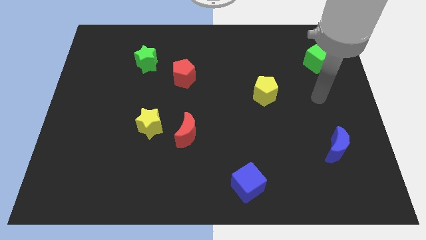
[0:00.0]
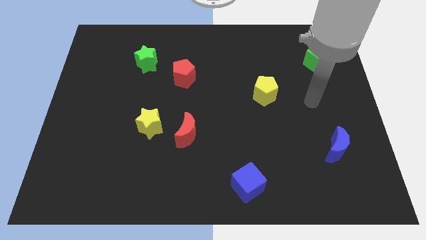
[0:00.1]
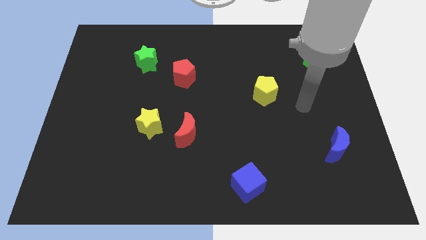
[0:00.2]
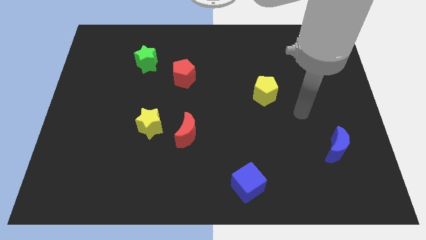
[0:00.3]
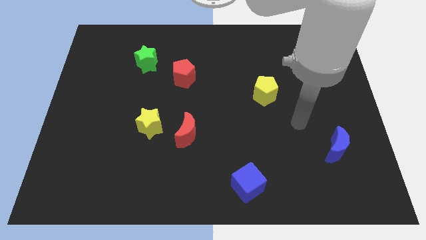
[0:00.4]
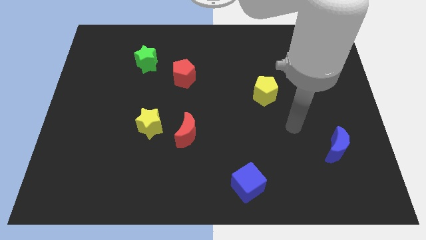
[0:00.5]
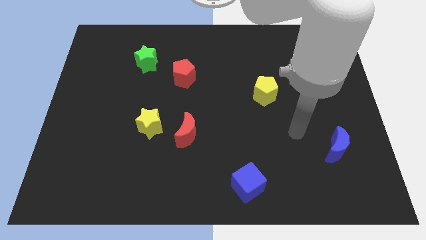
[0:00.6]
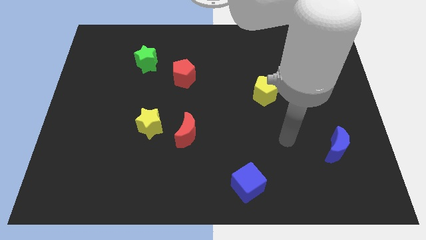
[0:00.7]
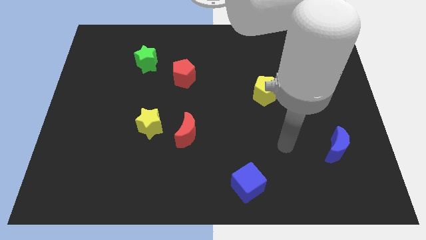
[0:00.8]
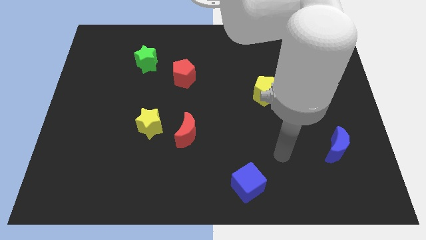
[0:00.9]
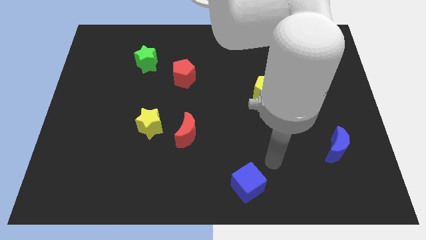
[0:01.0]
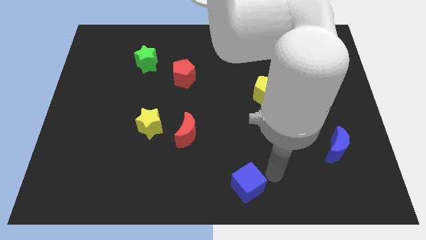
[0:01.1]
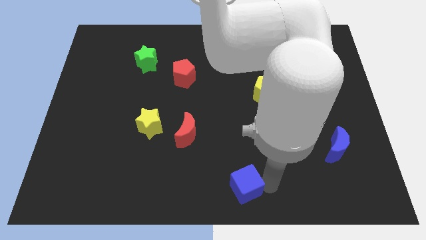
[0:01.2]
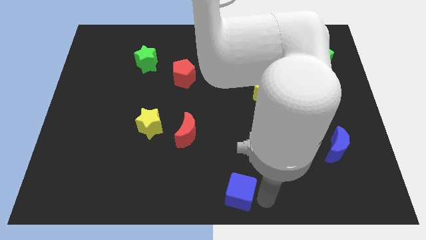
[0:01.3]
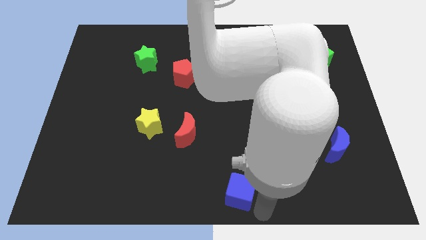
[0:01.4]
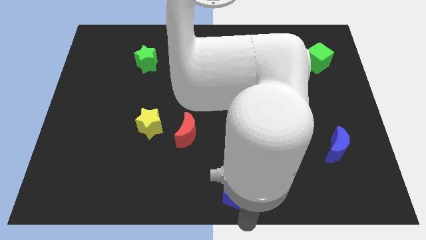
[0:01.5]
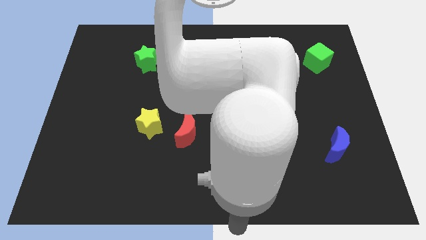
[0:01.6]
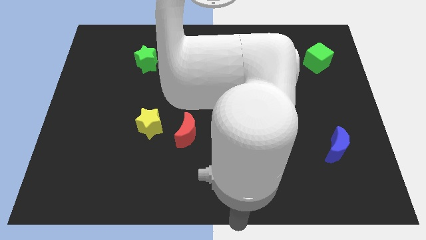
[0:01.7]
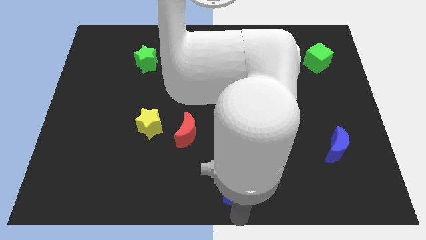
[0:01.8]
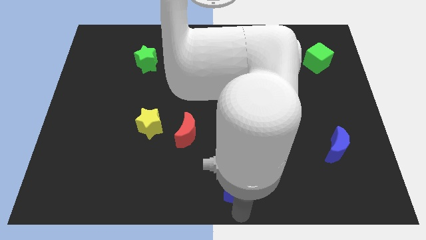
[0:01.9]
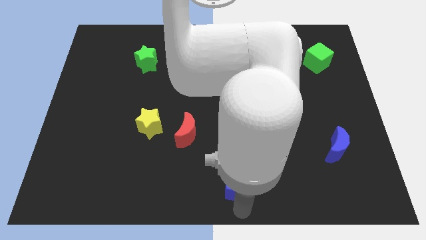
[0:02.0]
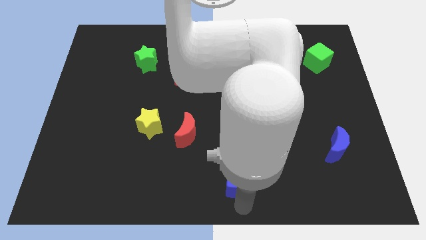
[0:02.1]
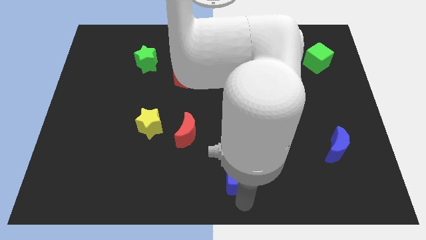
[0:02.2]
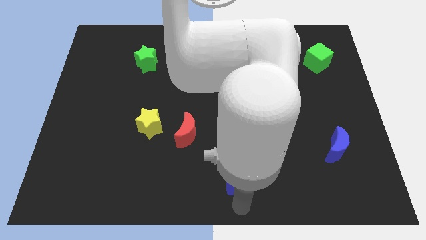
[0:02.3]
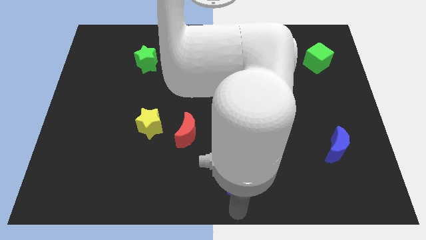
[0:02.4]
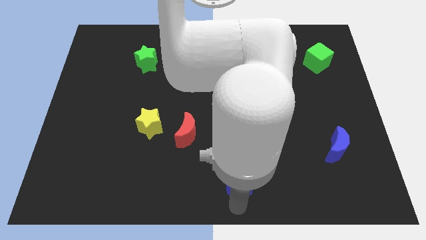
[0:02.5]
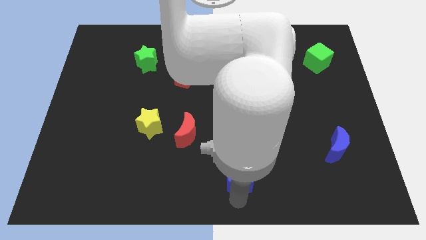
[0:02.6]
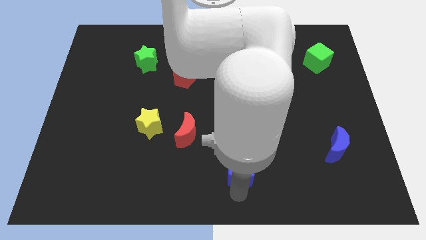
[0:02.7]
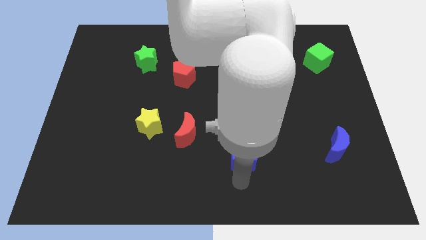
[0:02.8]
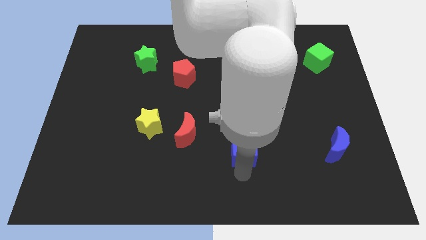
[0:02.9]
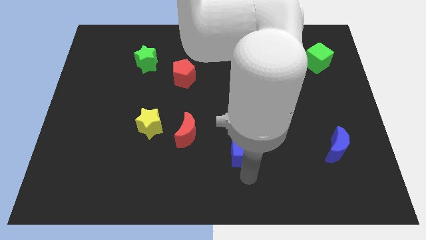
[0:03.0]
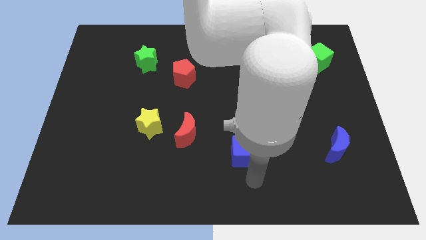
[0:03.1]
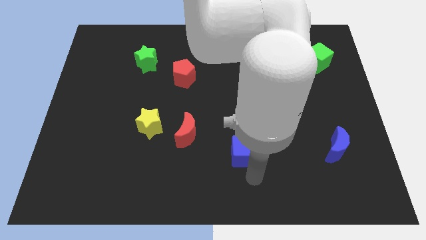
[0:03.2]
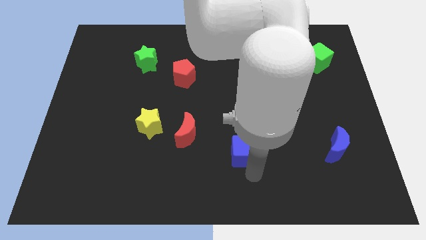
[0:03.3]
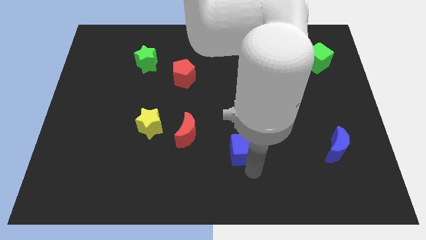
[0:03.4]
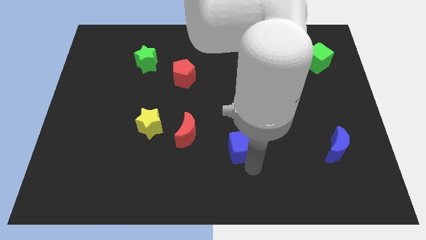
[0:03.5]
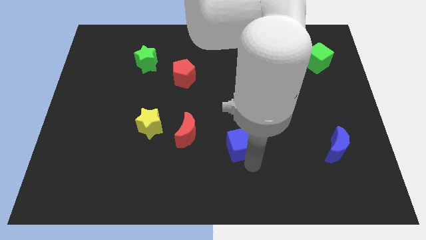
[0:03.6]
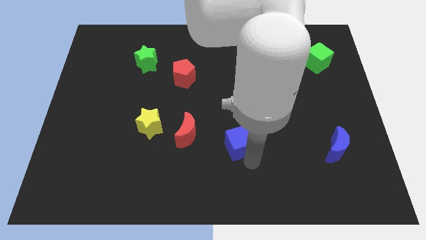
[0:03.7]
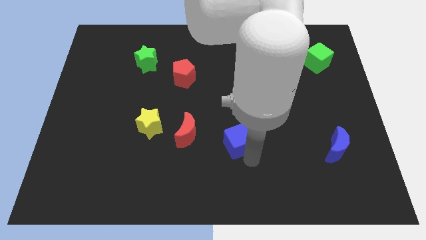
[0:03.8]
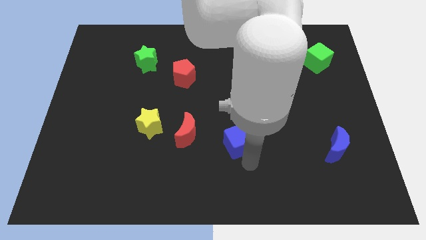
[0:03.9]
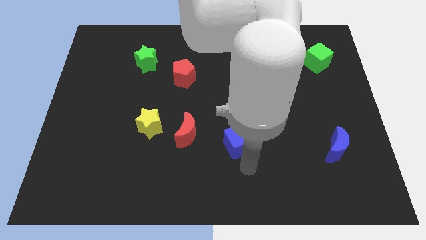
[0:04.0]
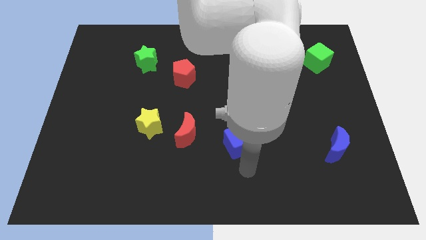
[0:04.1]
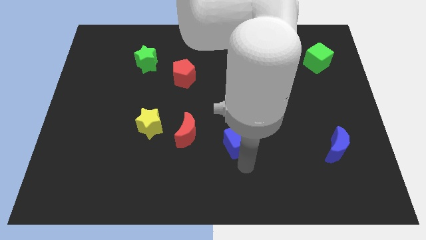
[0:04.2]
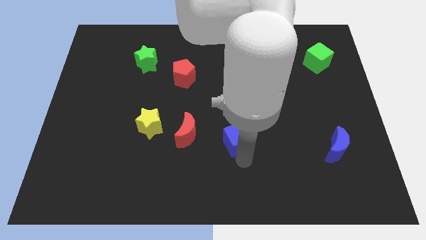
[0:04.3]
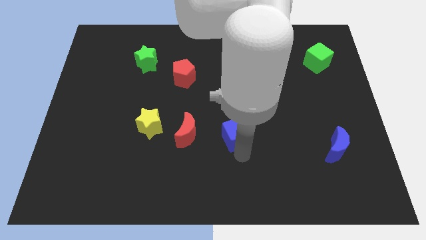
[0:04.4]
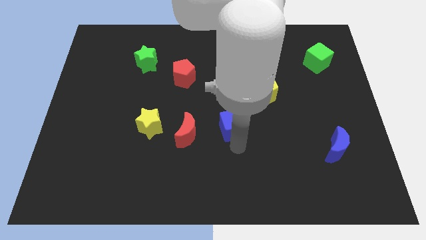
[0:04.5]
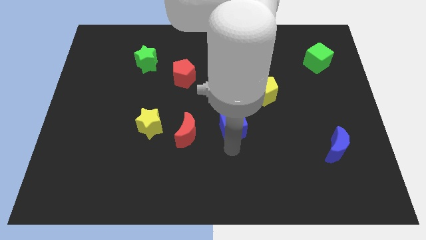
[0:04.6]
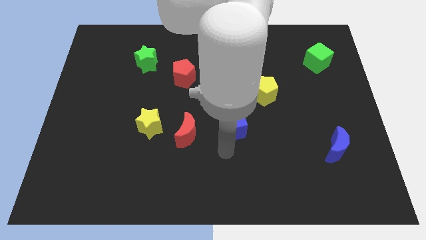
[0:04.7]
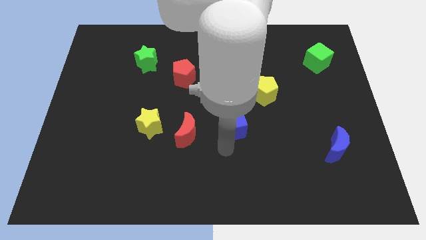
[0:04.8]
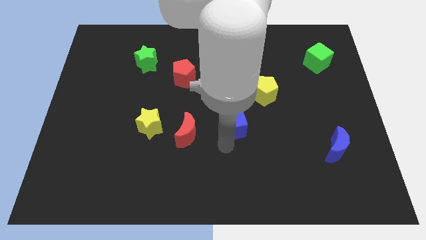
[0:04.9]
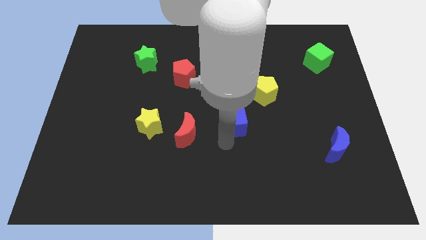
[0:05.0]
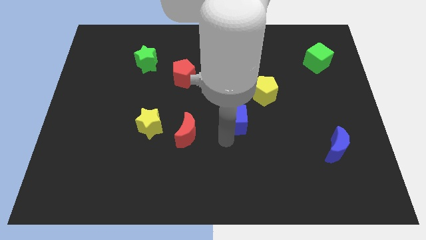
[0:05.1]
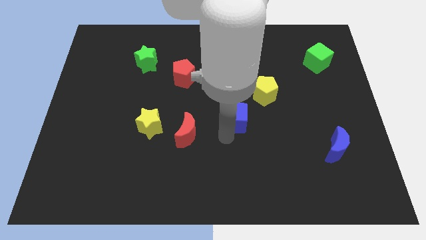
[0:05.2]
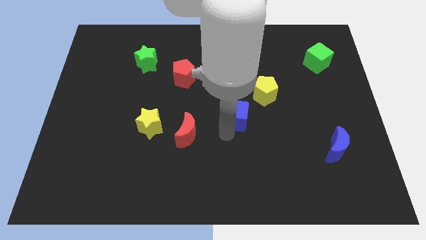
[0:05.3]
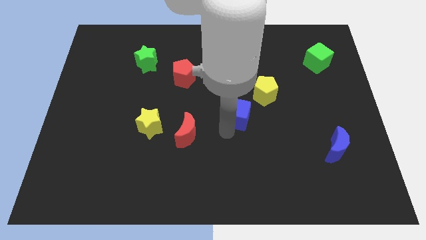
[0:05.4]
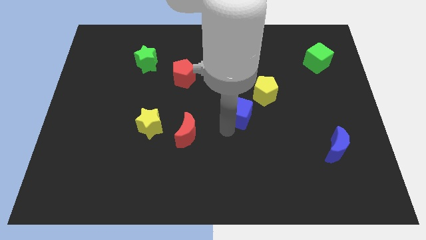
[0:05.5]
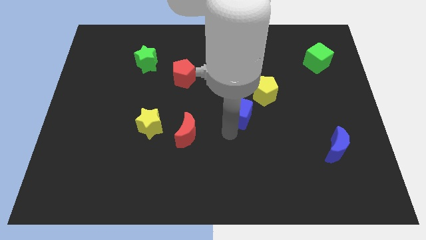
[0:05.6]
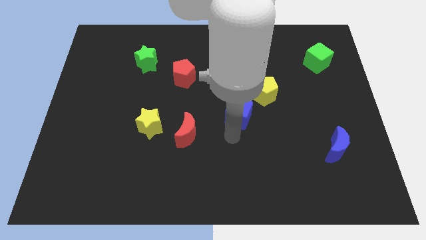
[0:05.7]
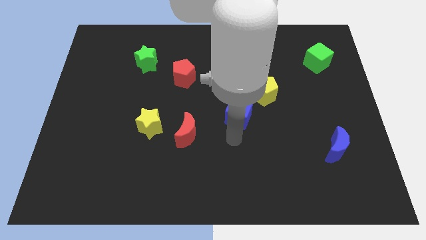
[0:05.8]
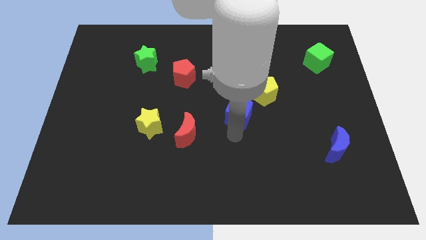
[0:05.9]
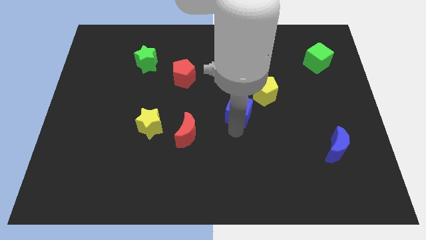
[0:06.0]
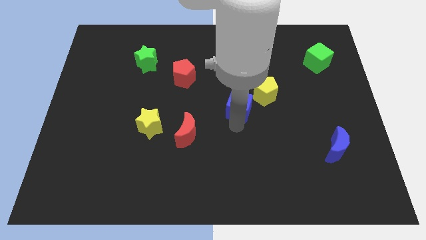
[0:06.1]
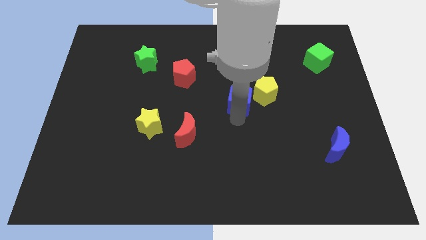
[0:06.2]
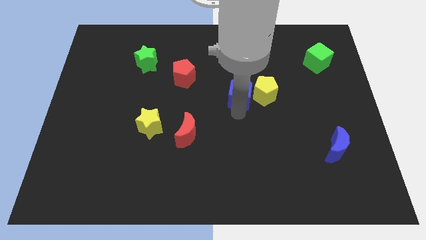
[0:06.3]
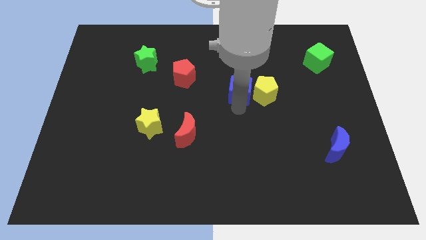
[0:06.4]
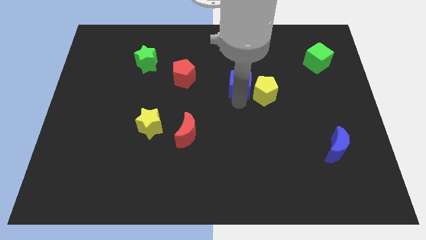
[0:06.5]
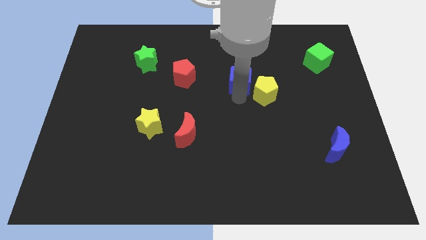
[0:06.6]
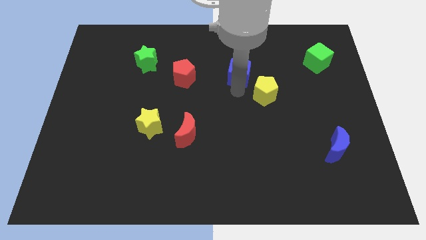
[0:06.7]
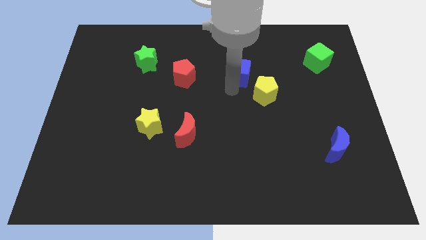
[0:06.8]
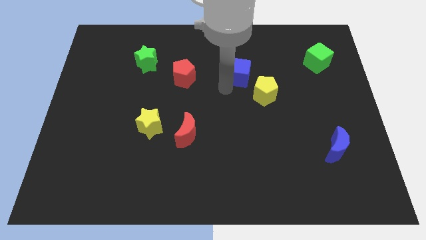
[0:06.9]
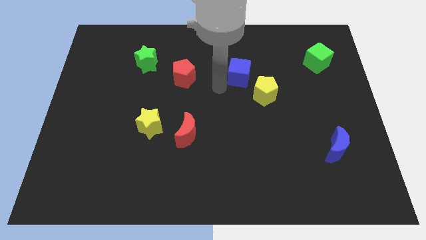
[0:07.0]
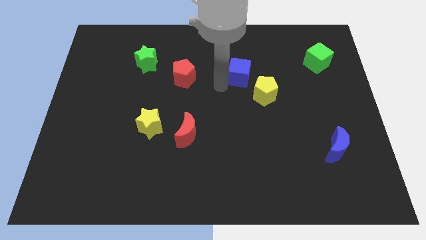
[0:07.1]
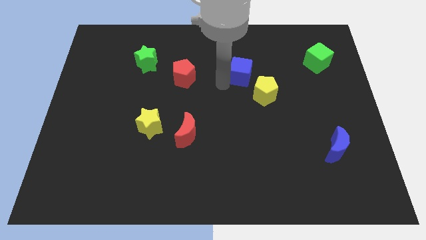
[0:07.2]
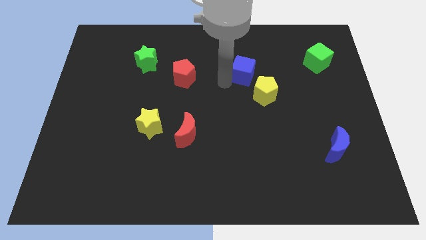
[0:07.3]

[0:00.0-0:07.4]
move the blue cube to the top side of the yellow pentagon
